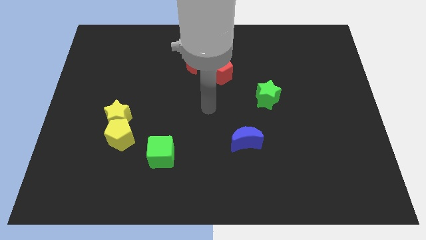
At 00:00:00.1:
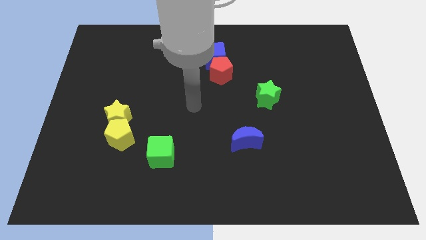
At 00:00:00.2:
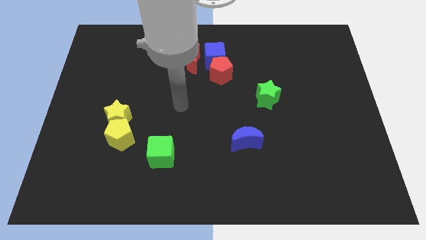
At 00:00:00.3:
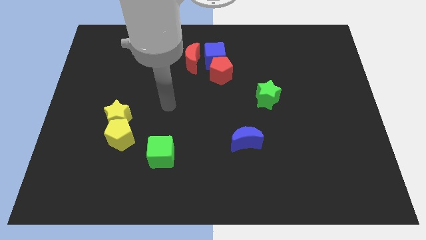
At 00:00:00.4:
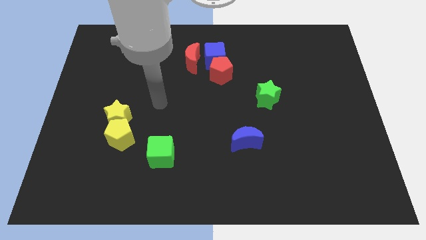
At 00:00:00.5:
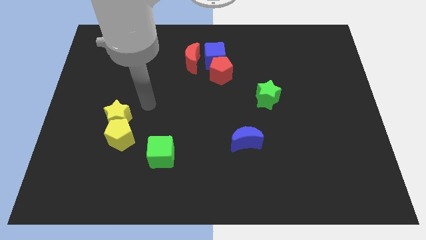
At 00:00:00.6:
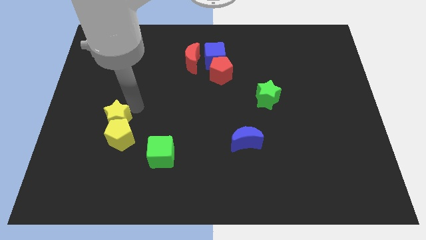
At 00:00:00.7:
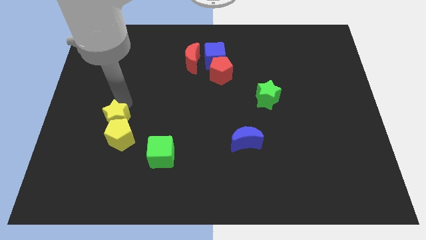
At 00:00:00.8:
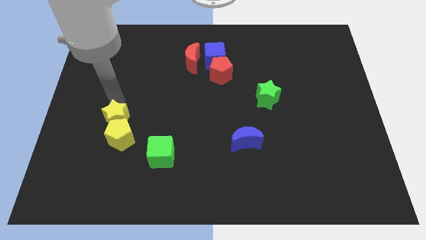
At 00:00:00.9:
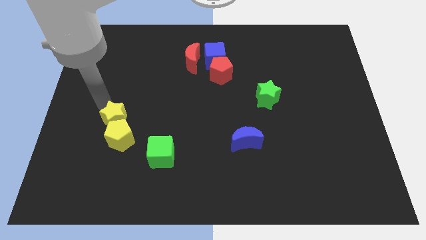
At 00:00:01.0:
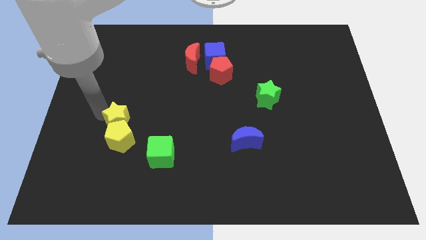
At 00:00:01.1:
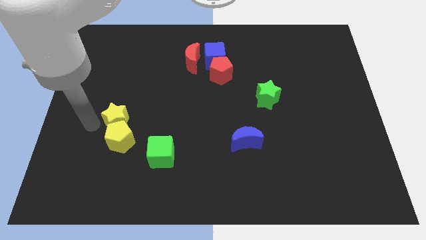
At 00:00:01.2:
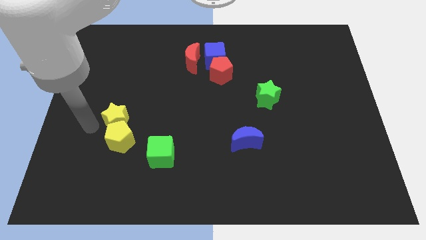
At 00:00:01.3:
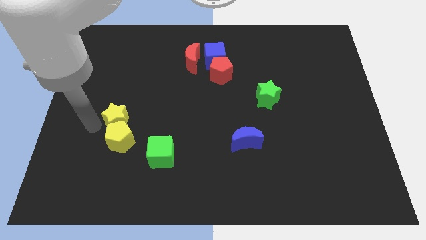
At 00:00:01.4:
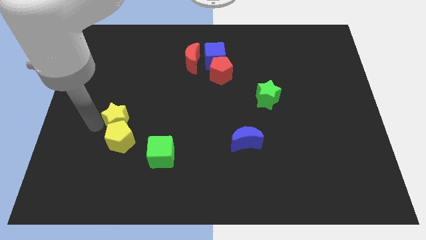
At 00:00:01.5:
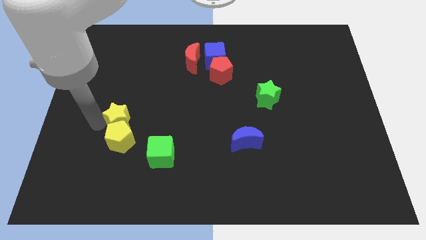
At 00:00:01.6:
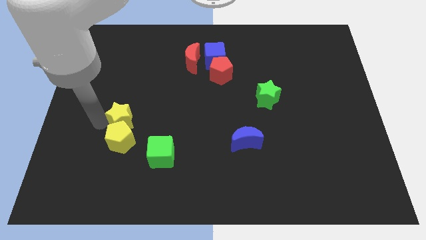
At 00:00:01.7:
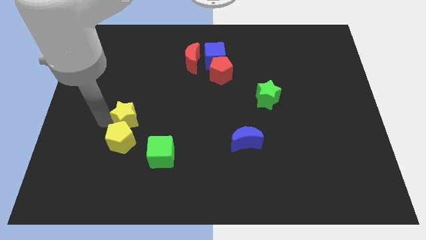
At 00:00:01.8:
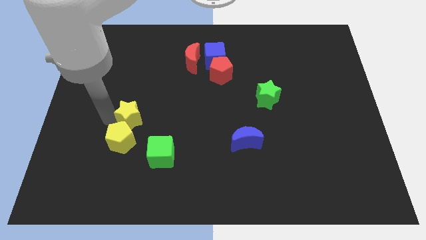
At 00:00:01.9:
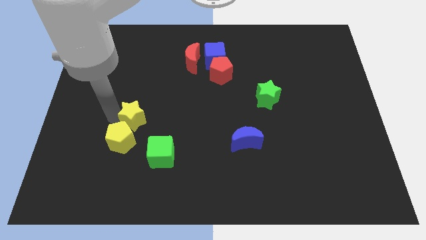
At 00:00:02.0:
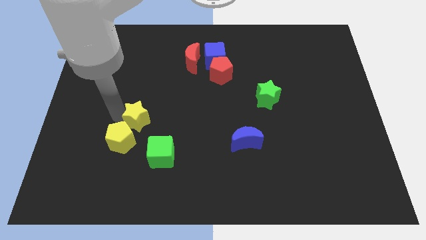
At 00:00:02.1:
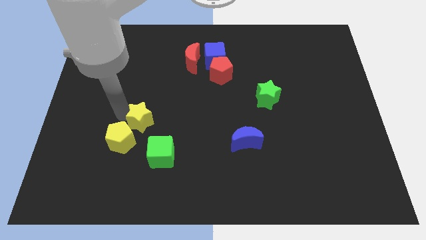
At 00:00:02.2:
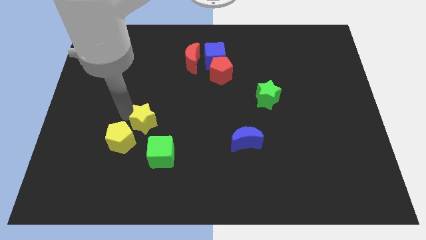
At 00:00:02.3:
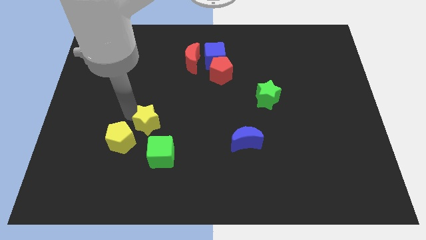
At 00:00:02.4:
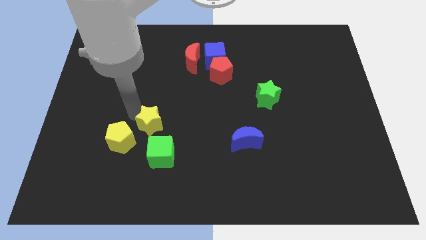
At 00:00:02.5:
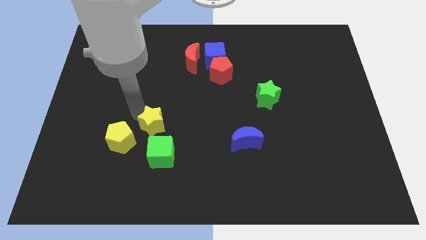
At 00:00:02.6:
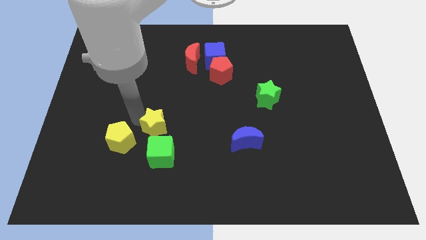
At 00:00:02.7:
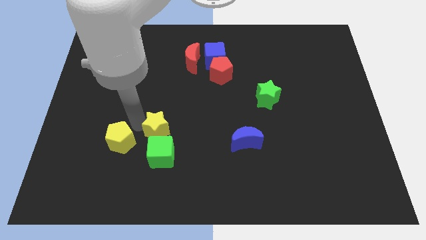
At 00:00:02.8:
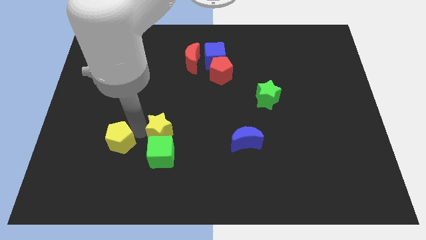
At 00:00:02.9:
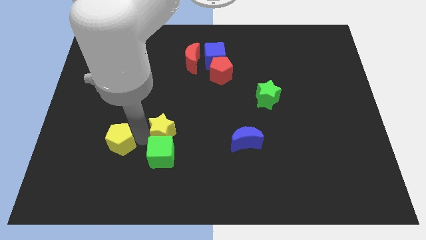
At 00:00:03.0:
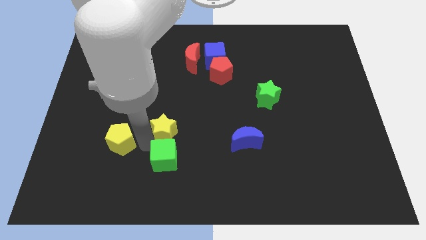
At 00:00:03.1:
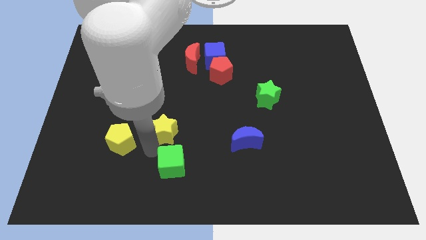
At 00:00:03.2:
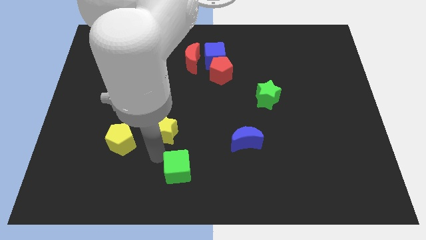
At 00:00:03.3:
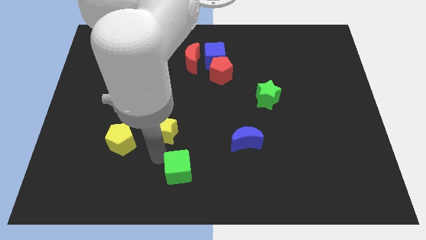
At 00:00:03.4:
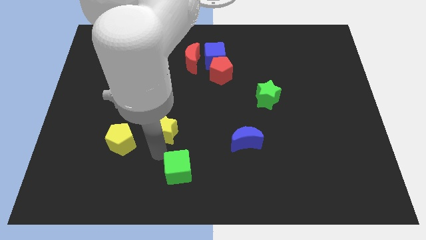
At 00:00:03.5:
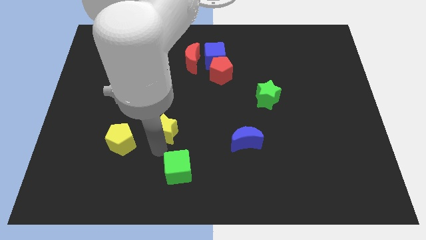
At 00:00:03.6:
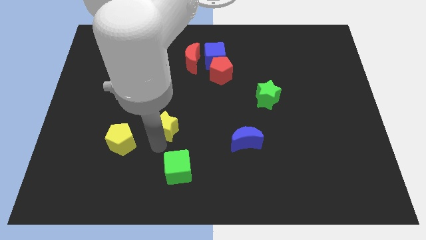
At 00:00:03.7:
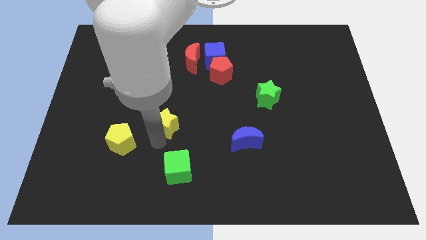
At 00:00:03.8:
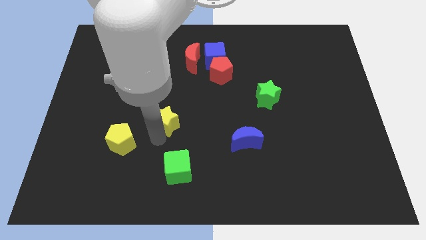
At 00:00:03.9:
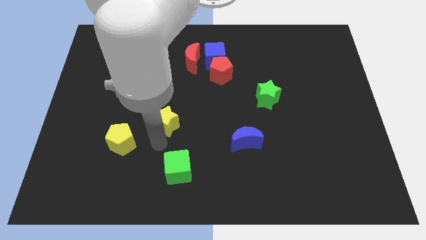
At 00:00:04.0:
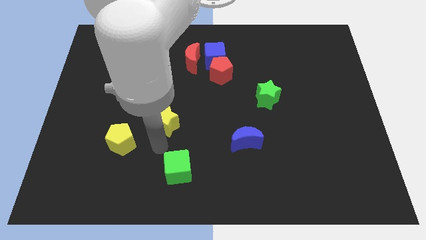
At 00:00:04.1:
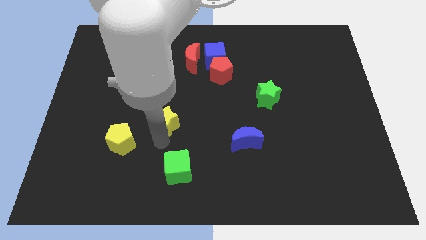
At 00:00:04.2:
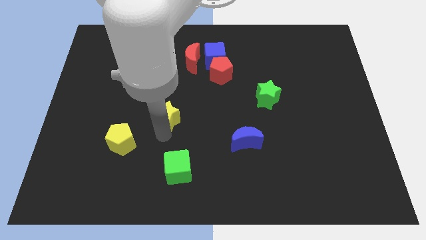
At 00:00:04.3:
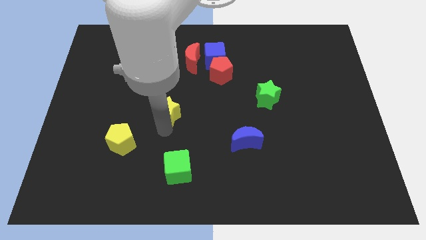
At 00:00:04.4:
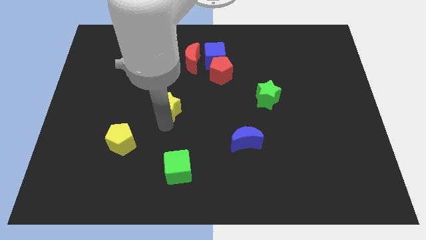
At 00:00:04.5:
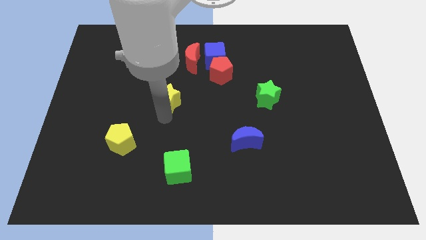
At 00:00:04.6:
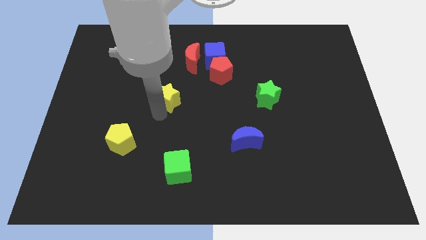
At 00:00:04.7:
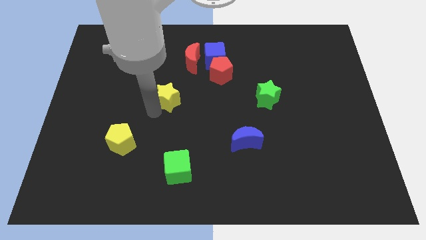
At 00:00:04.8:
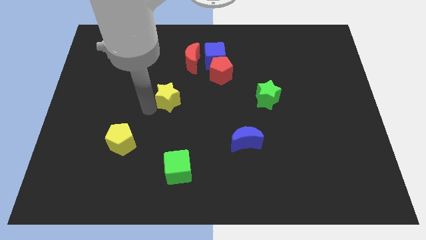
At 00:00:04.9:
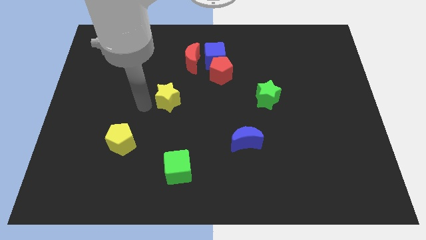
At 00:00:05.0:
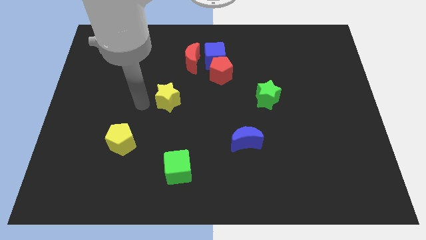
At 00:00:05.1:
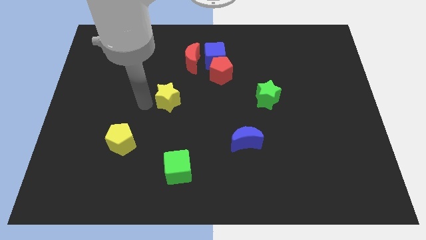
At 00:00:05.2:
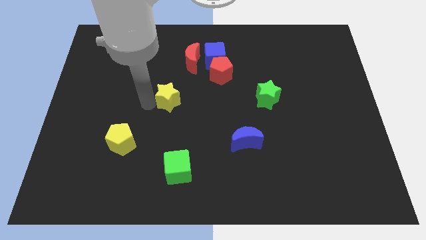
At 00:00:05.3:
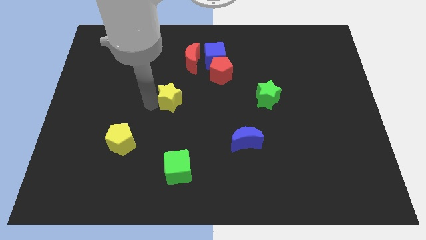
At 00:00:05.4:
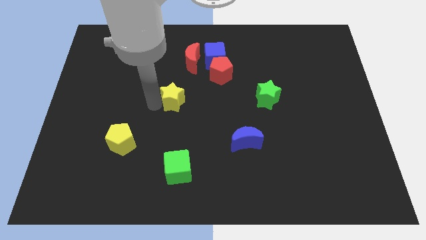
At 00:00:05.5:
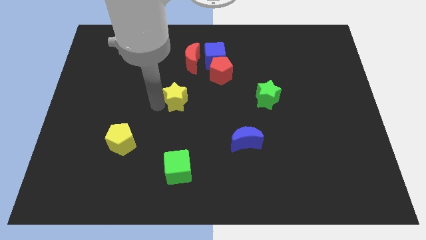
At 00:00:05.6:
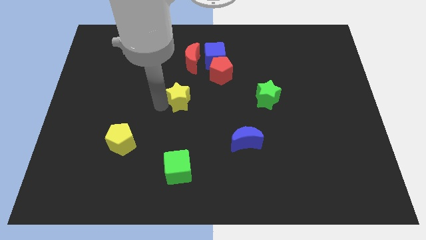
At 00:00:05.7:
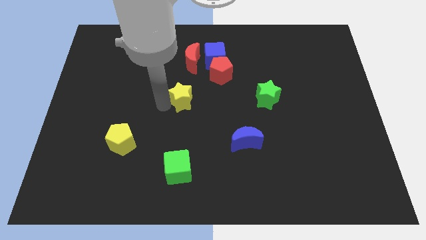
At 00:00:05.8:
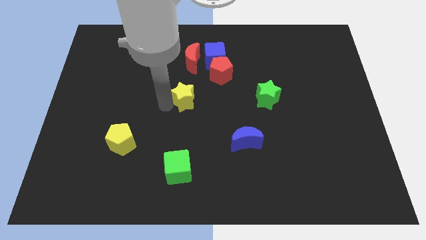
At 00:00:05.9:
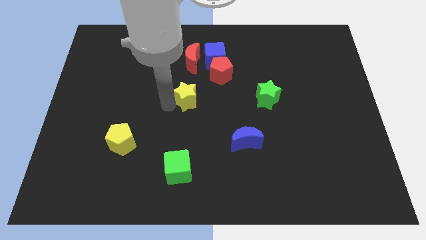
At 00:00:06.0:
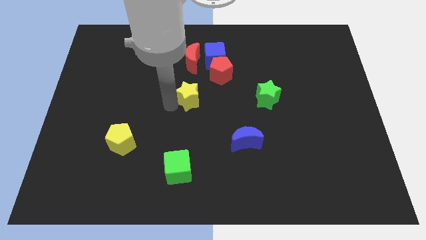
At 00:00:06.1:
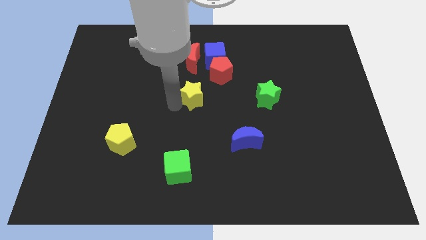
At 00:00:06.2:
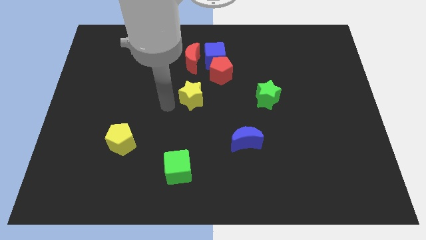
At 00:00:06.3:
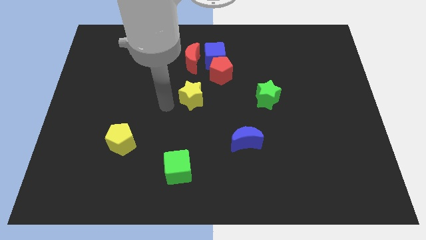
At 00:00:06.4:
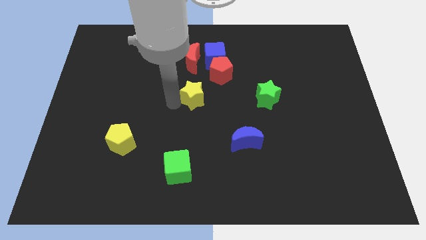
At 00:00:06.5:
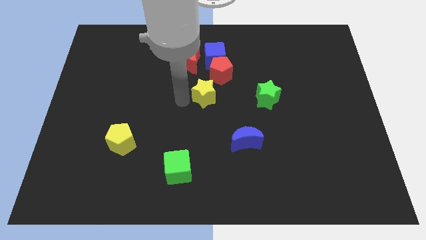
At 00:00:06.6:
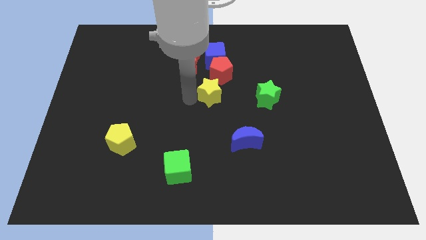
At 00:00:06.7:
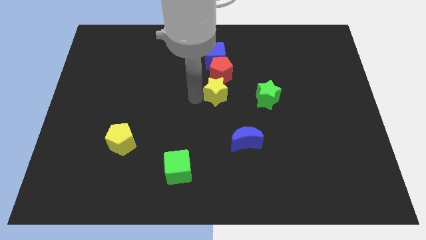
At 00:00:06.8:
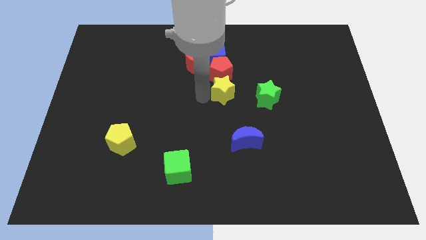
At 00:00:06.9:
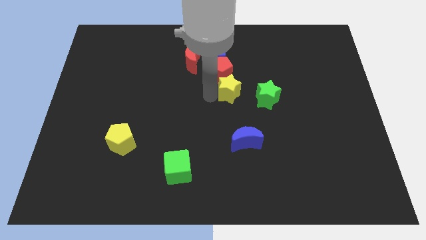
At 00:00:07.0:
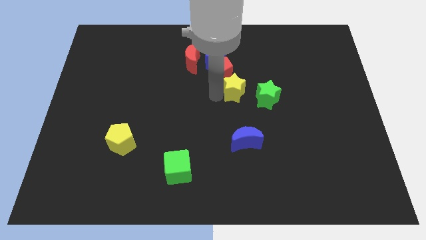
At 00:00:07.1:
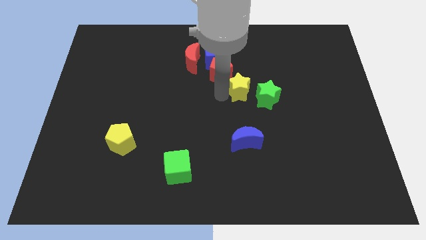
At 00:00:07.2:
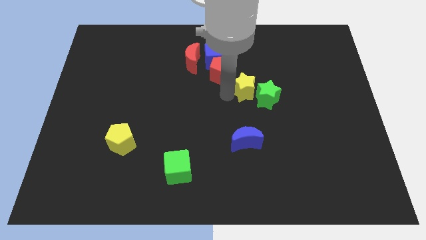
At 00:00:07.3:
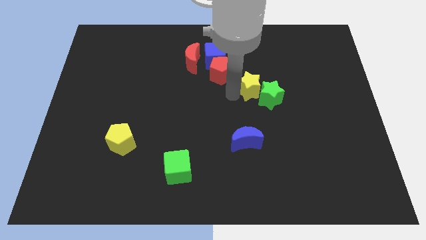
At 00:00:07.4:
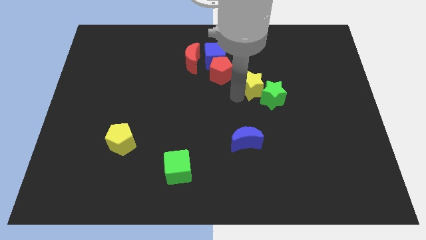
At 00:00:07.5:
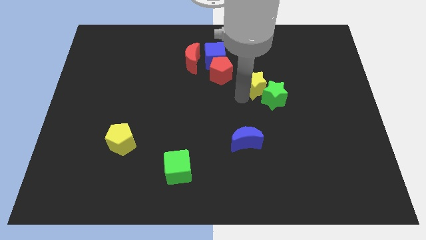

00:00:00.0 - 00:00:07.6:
move the yellow star to the top of the green star
